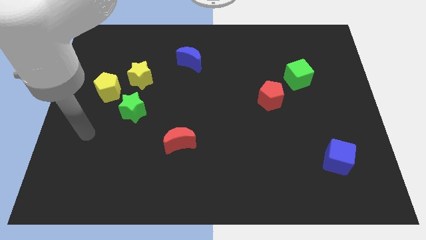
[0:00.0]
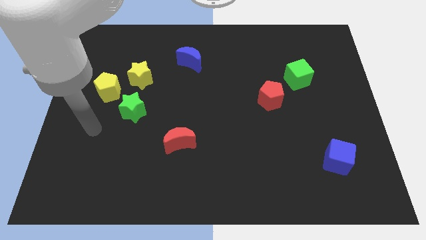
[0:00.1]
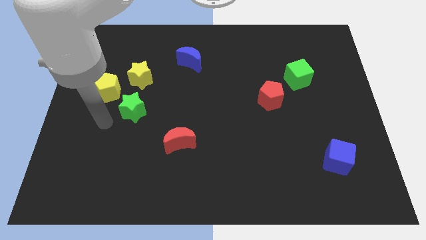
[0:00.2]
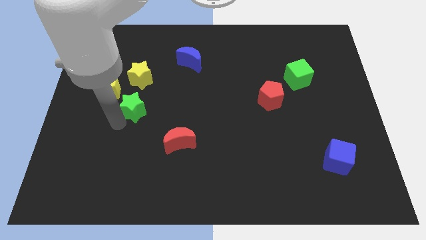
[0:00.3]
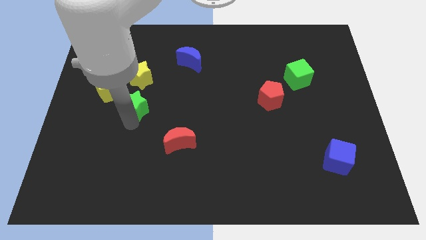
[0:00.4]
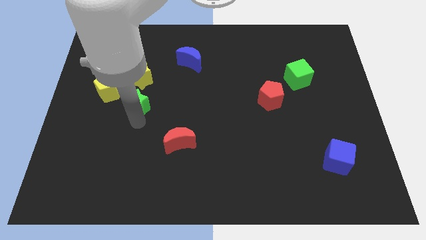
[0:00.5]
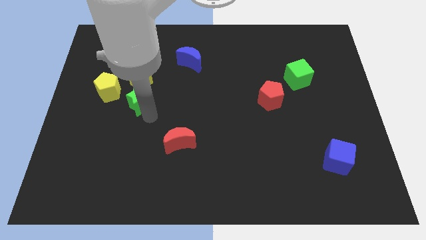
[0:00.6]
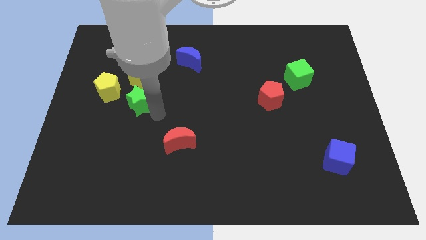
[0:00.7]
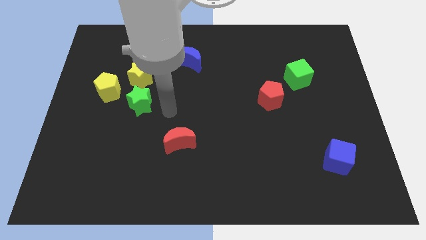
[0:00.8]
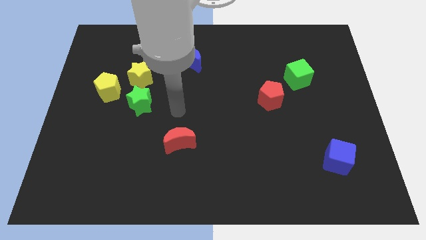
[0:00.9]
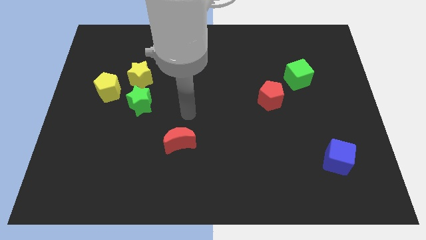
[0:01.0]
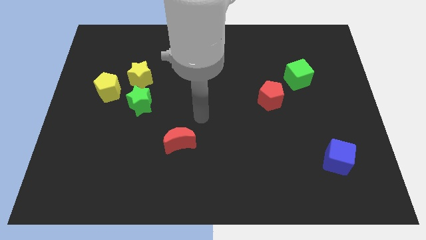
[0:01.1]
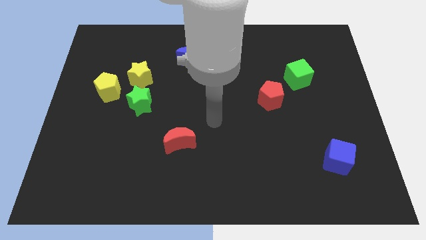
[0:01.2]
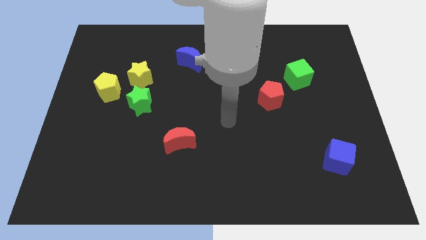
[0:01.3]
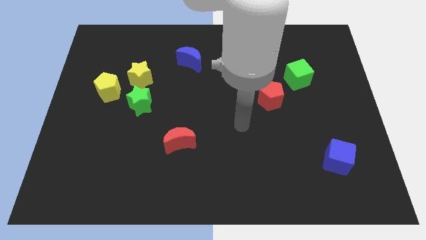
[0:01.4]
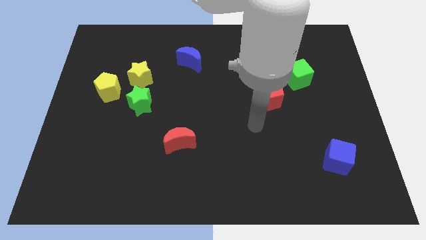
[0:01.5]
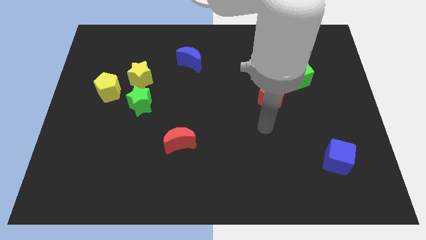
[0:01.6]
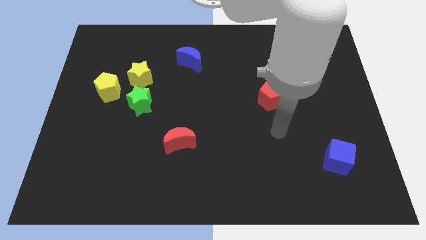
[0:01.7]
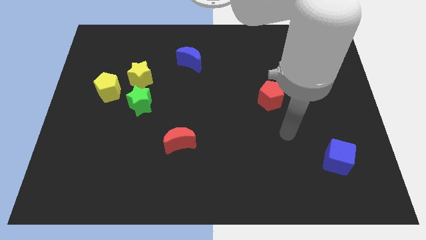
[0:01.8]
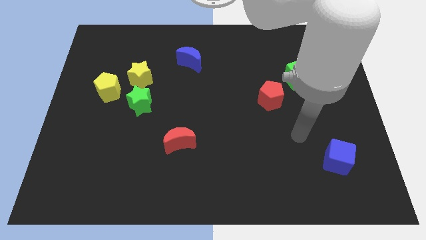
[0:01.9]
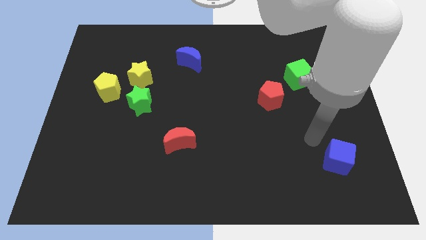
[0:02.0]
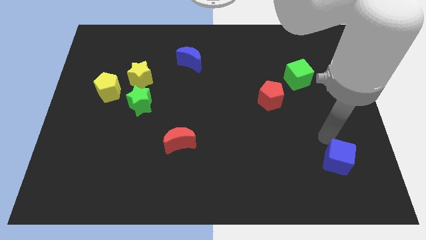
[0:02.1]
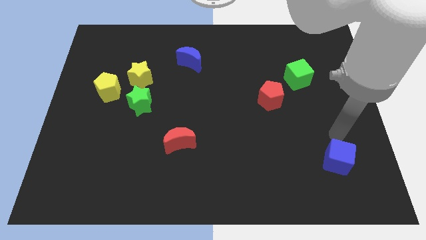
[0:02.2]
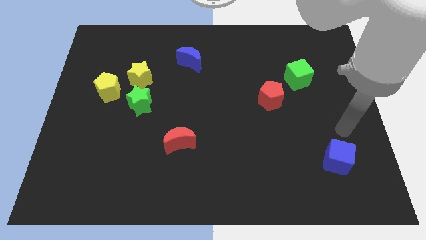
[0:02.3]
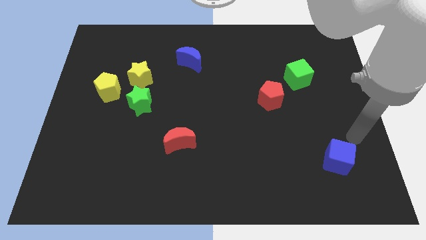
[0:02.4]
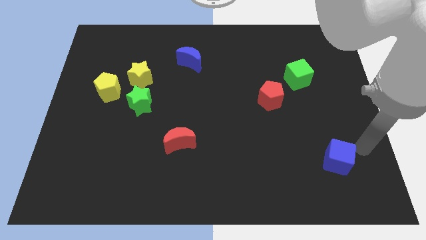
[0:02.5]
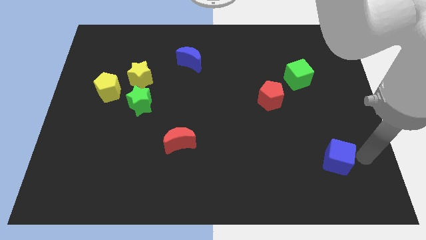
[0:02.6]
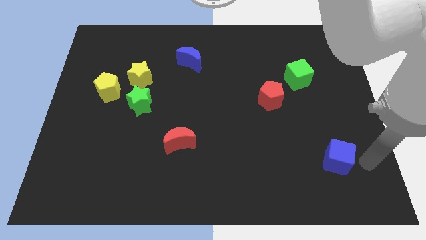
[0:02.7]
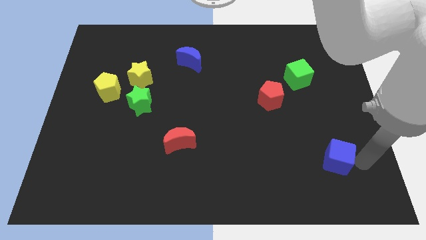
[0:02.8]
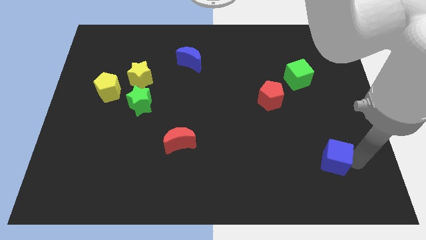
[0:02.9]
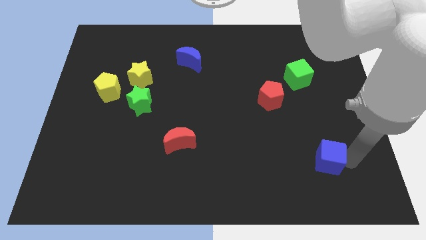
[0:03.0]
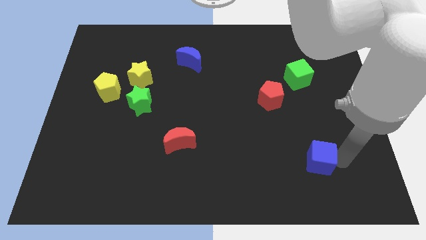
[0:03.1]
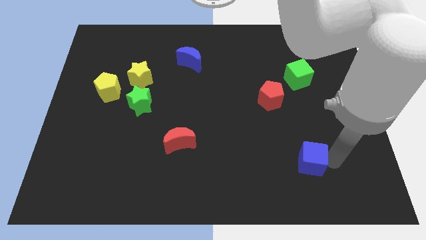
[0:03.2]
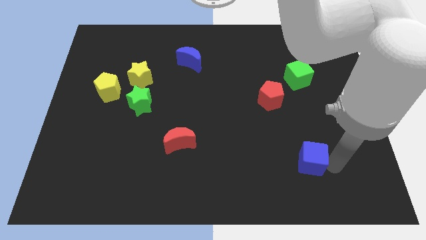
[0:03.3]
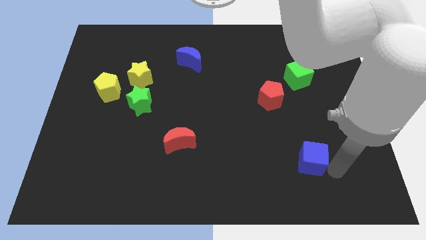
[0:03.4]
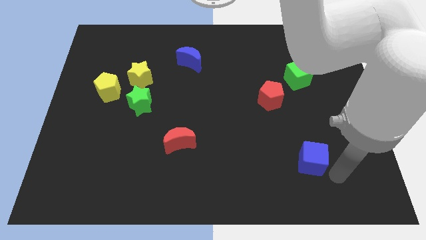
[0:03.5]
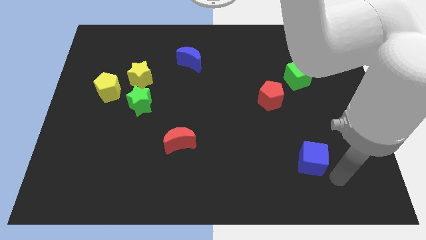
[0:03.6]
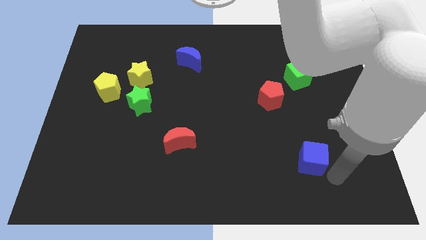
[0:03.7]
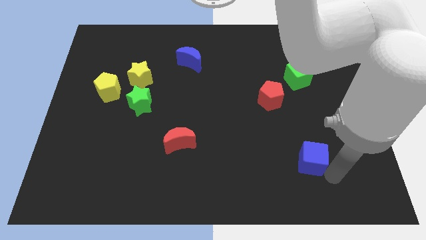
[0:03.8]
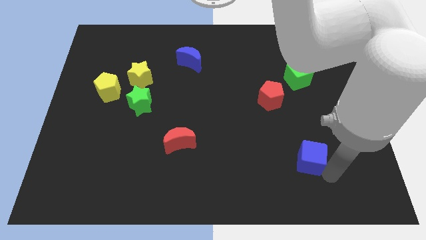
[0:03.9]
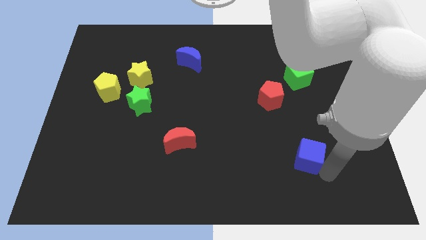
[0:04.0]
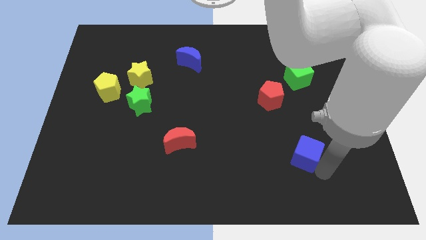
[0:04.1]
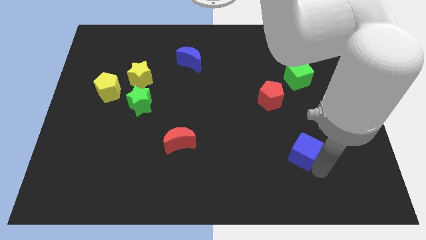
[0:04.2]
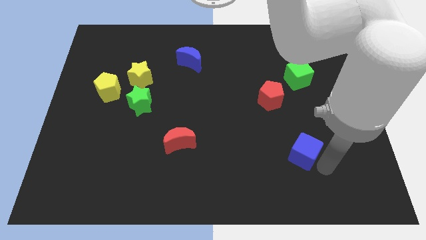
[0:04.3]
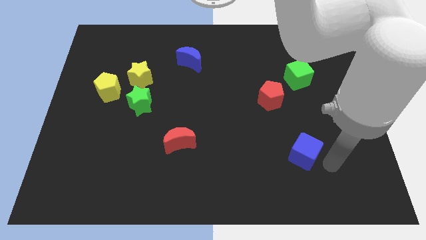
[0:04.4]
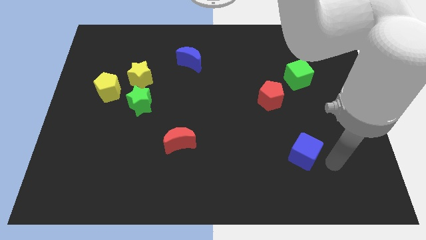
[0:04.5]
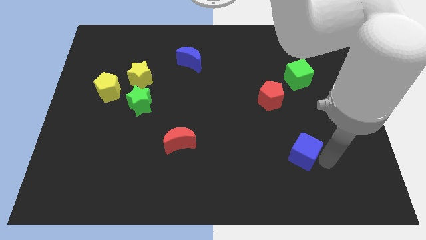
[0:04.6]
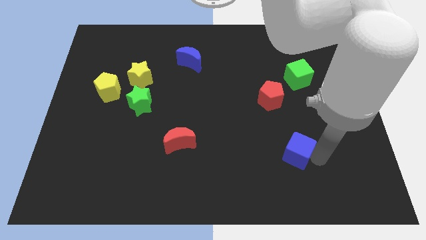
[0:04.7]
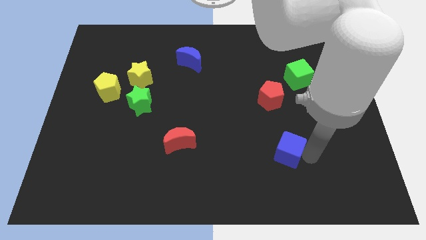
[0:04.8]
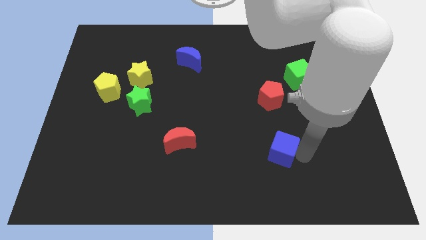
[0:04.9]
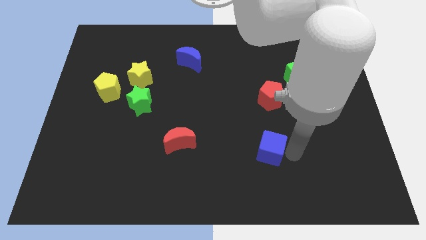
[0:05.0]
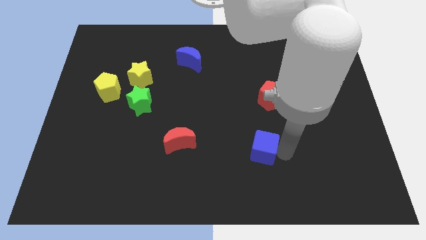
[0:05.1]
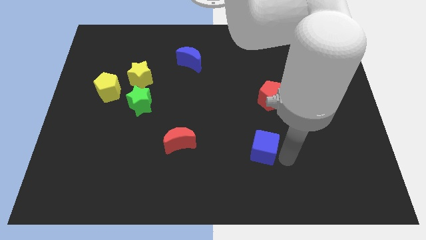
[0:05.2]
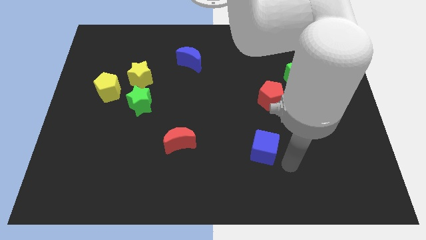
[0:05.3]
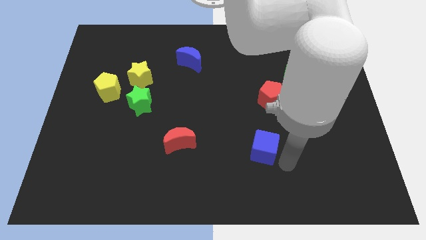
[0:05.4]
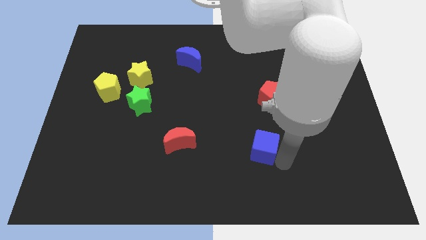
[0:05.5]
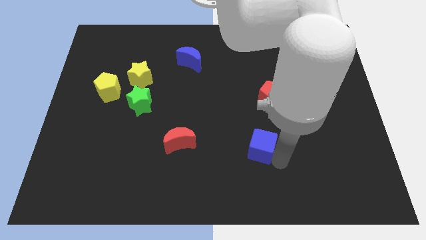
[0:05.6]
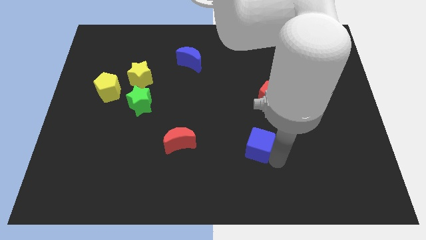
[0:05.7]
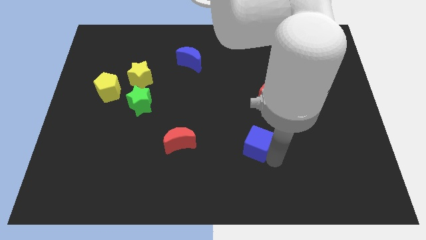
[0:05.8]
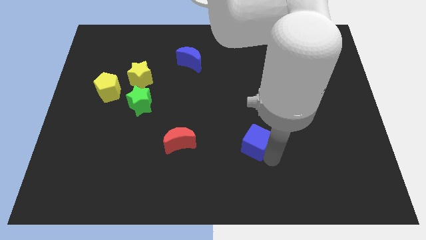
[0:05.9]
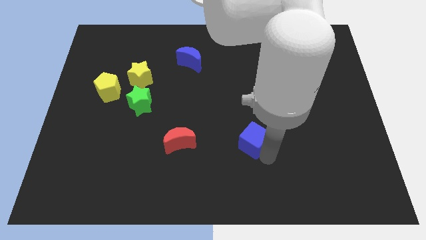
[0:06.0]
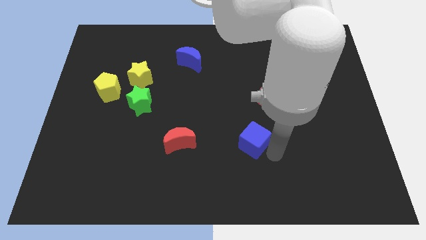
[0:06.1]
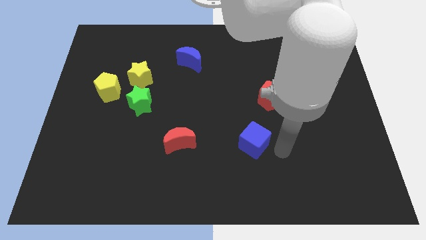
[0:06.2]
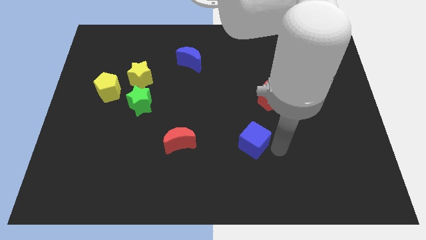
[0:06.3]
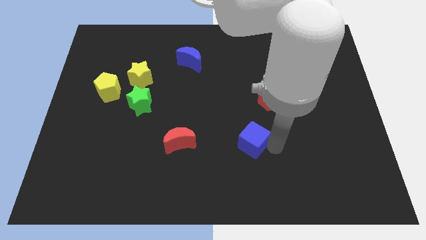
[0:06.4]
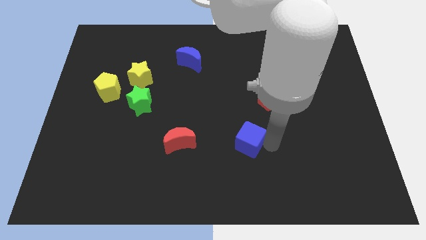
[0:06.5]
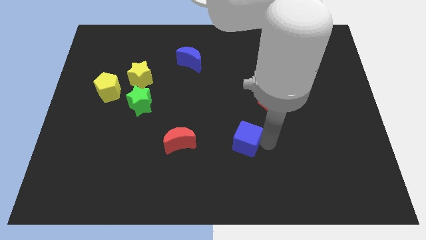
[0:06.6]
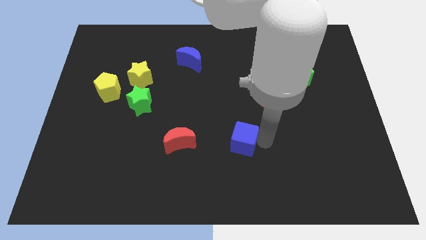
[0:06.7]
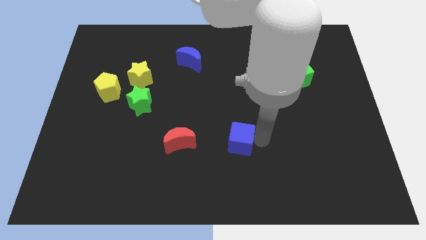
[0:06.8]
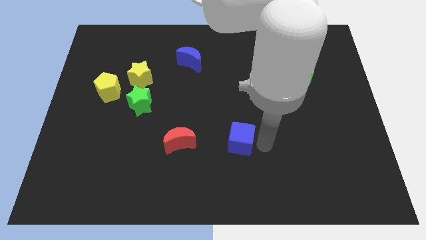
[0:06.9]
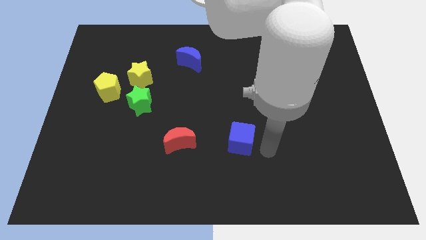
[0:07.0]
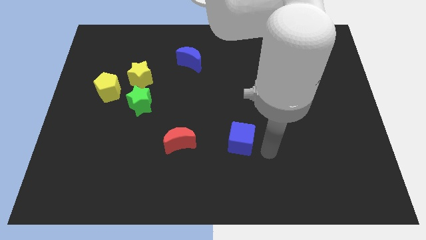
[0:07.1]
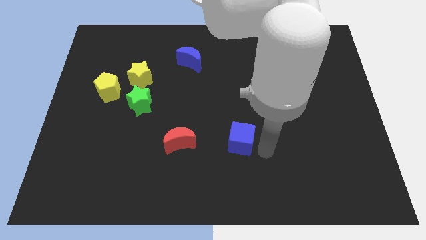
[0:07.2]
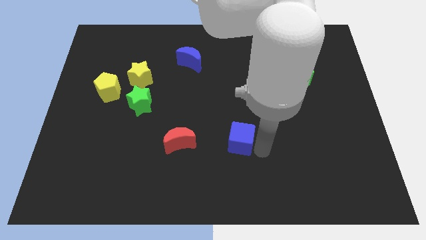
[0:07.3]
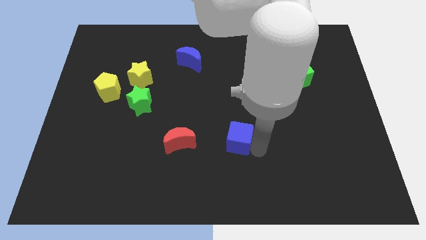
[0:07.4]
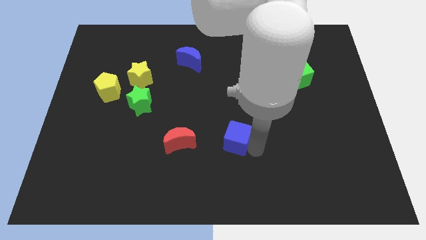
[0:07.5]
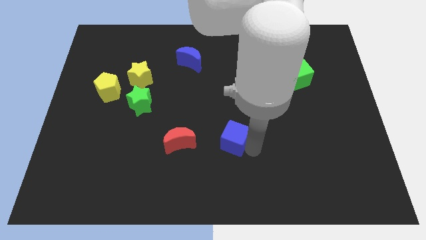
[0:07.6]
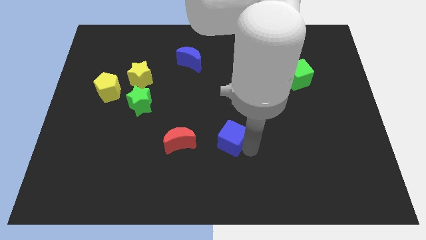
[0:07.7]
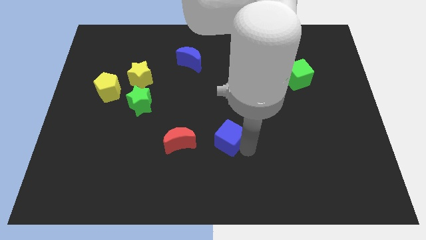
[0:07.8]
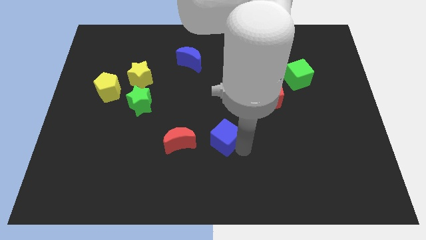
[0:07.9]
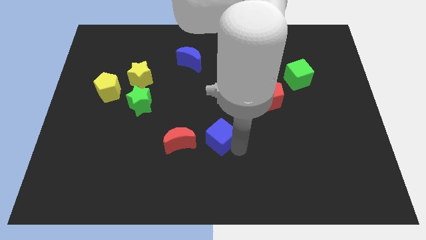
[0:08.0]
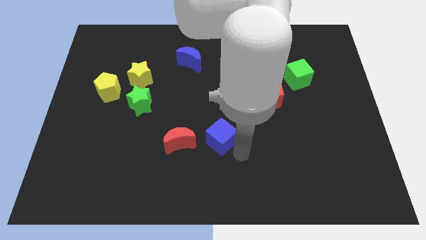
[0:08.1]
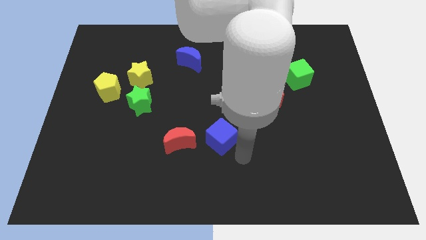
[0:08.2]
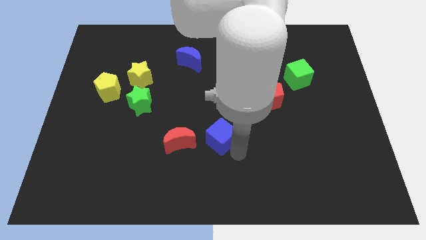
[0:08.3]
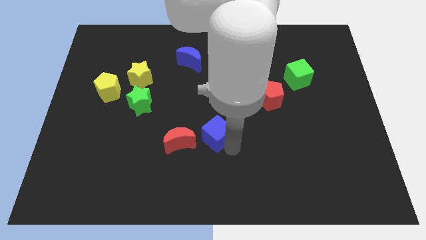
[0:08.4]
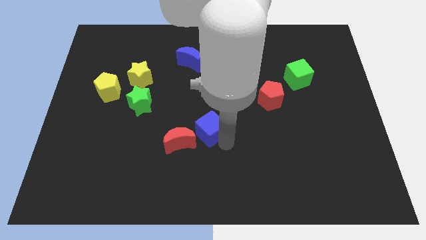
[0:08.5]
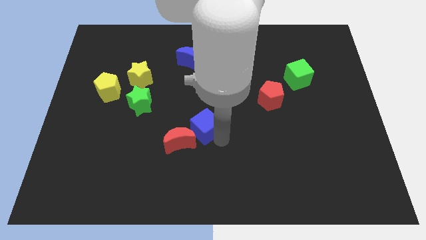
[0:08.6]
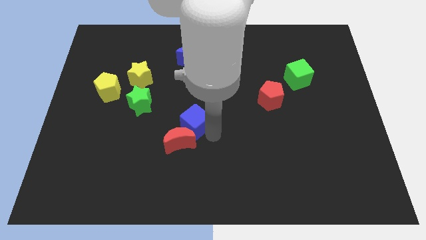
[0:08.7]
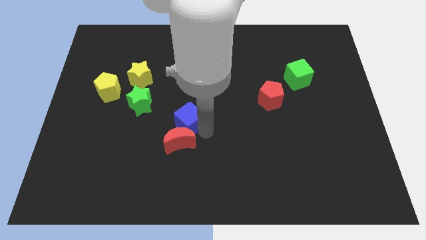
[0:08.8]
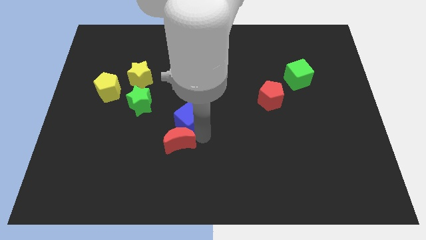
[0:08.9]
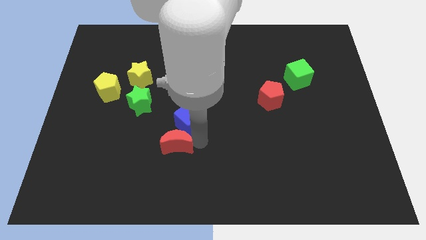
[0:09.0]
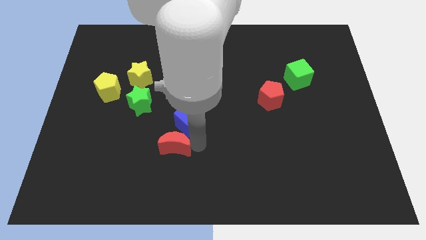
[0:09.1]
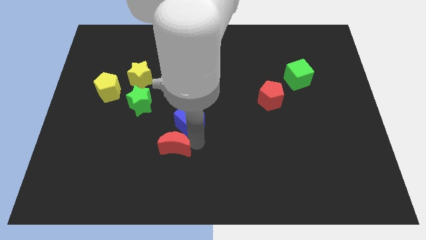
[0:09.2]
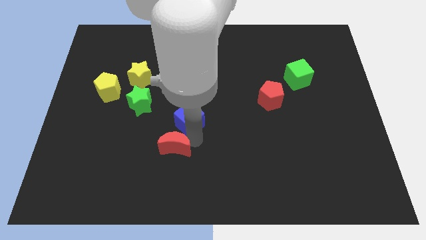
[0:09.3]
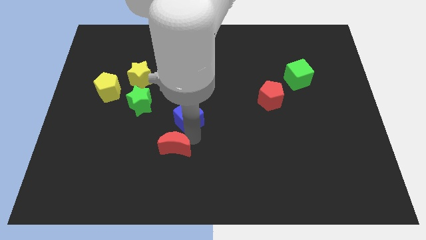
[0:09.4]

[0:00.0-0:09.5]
push the blue cube to the right of the green star
